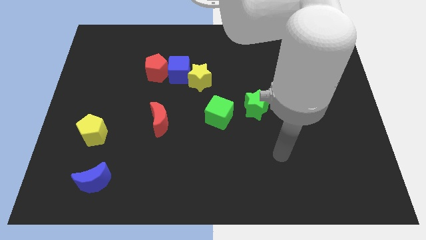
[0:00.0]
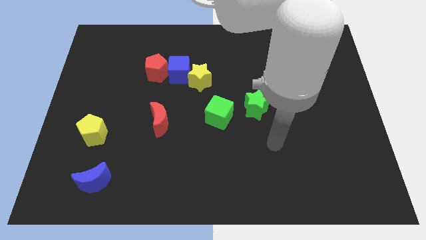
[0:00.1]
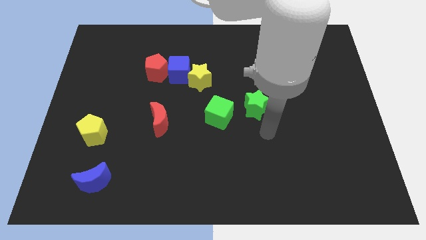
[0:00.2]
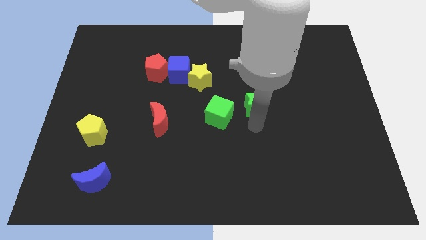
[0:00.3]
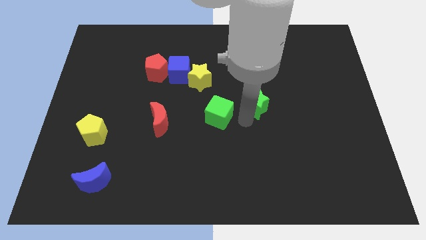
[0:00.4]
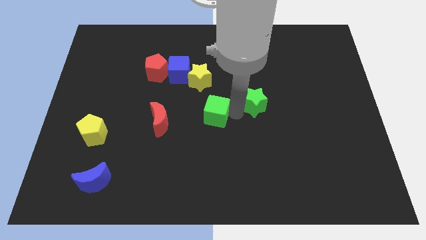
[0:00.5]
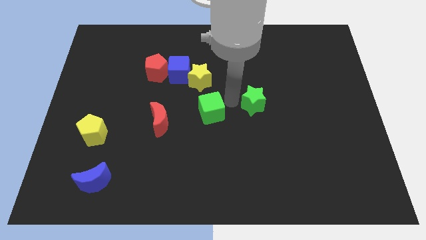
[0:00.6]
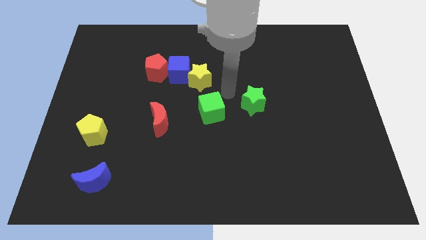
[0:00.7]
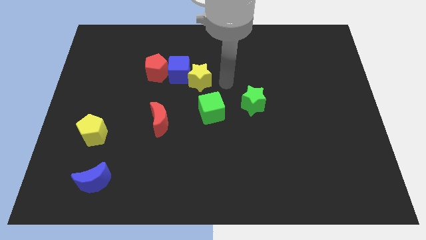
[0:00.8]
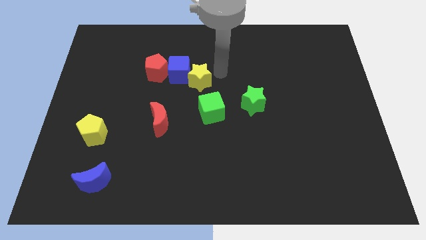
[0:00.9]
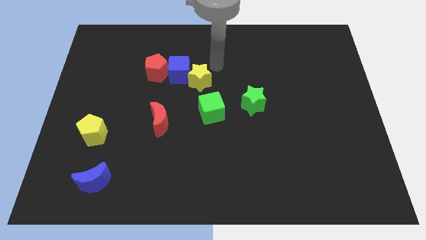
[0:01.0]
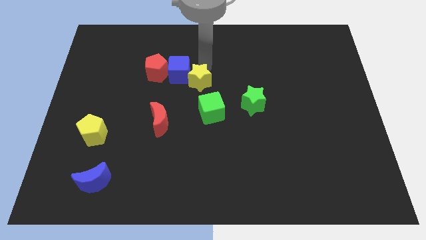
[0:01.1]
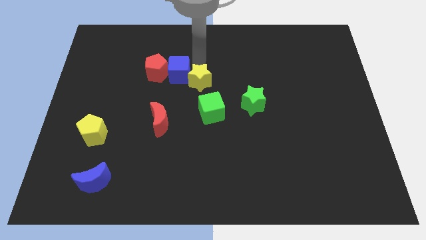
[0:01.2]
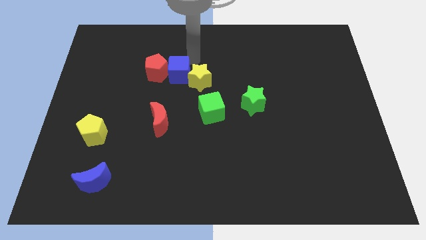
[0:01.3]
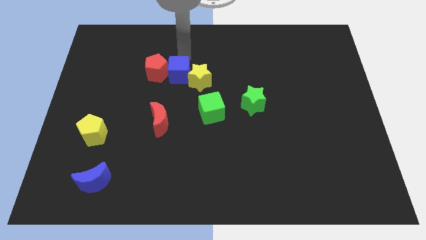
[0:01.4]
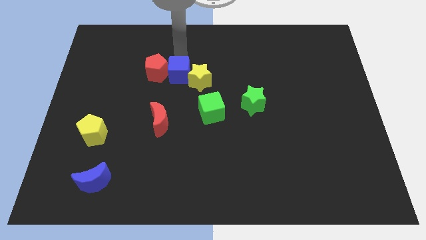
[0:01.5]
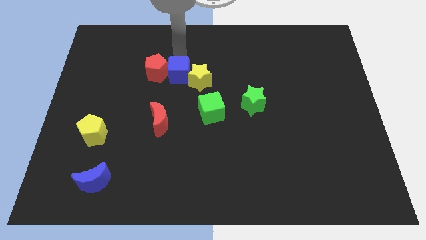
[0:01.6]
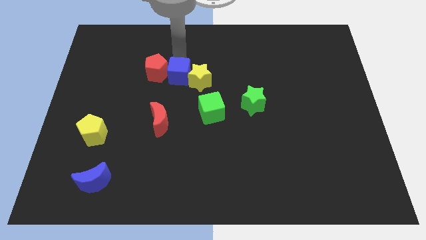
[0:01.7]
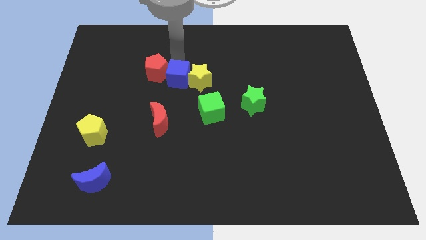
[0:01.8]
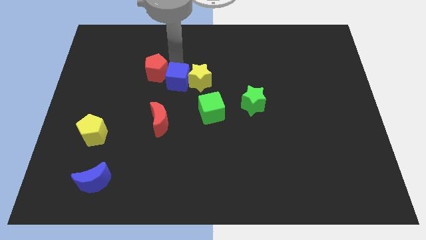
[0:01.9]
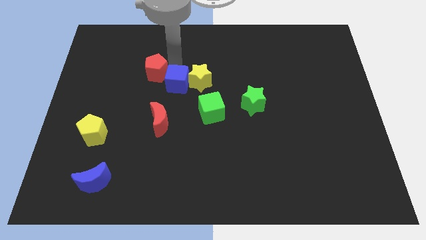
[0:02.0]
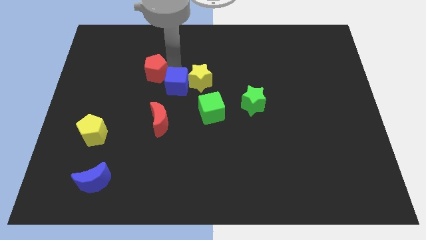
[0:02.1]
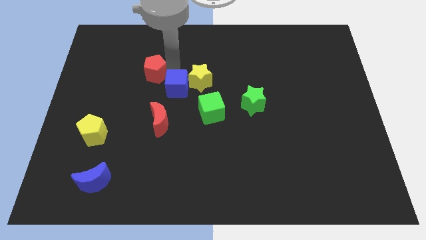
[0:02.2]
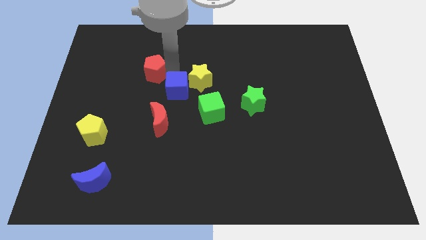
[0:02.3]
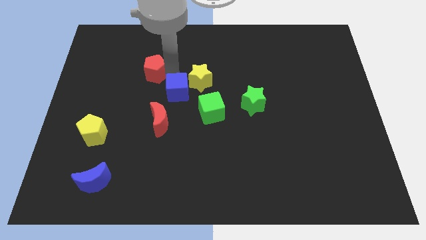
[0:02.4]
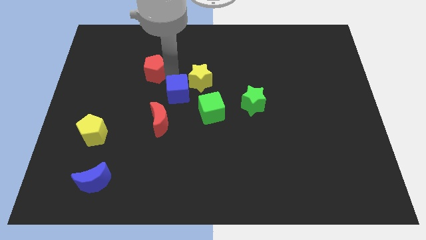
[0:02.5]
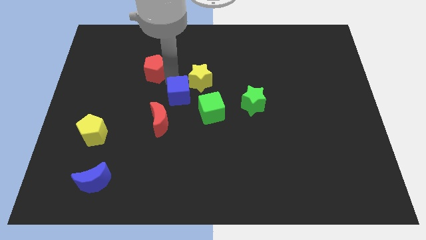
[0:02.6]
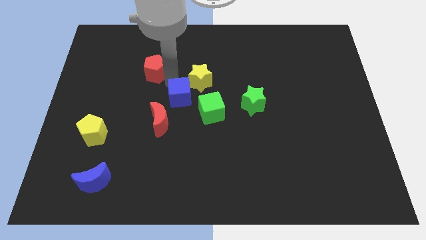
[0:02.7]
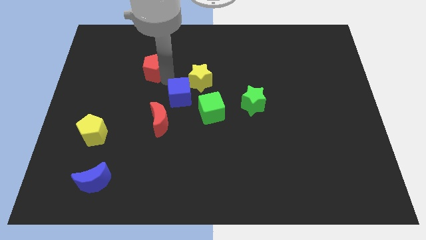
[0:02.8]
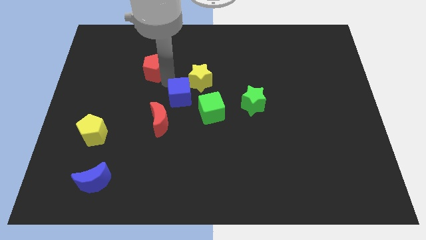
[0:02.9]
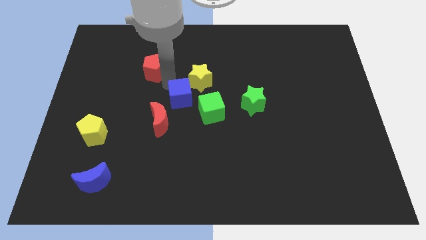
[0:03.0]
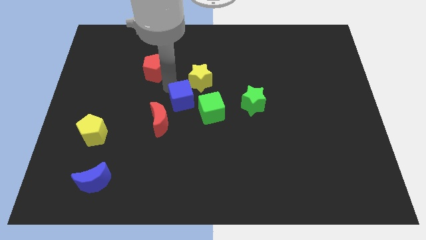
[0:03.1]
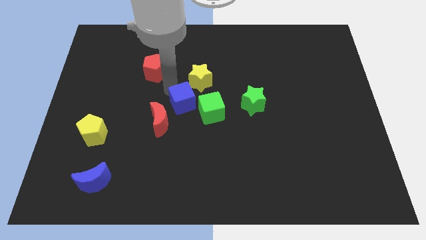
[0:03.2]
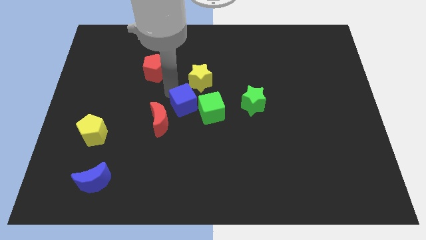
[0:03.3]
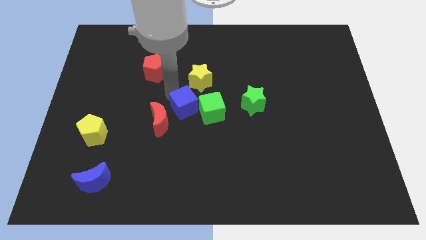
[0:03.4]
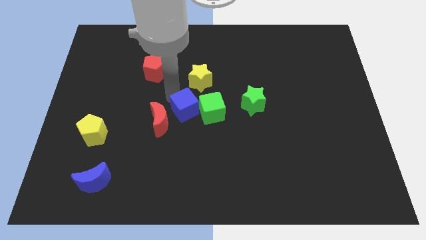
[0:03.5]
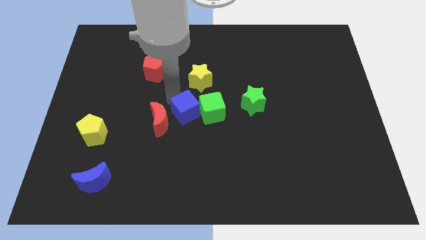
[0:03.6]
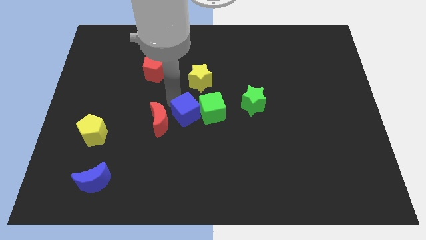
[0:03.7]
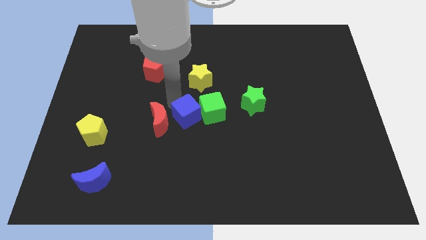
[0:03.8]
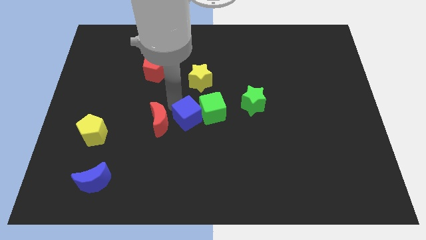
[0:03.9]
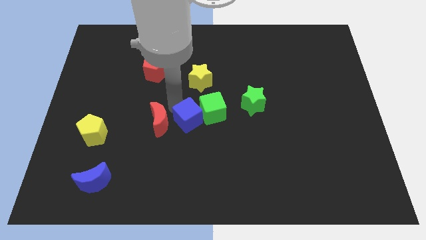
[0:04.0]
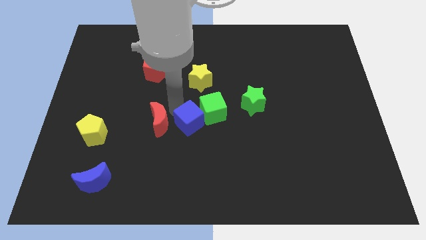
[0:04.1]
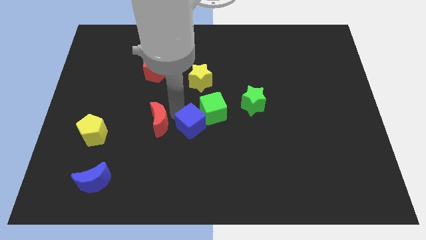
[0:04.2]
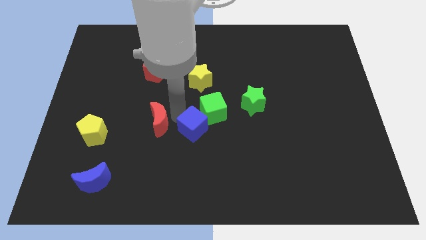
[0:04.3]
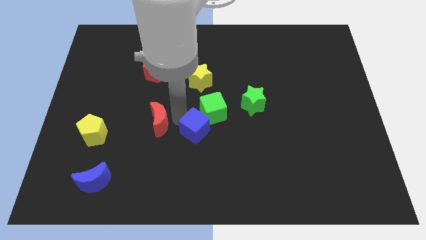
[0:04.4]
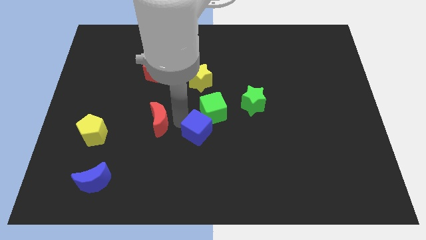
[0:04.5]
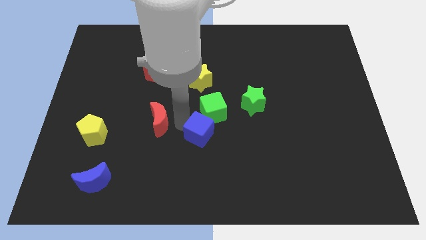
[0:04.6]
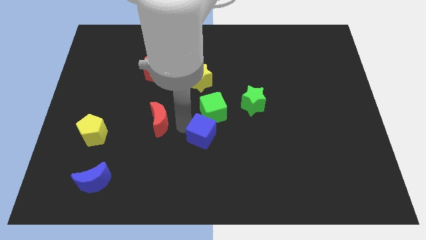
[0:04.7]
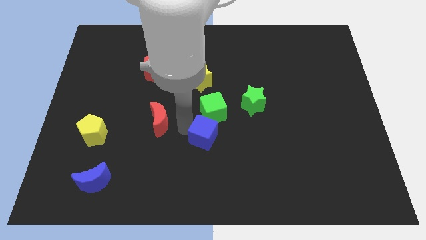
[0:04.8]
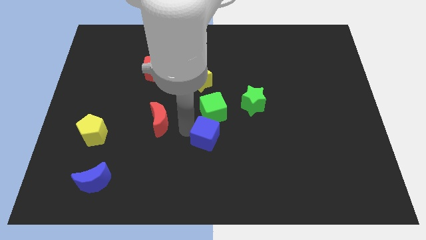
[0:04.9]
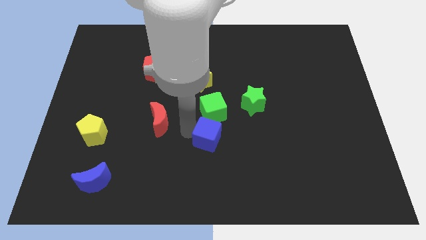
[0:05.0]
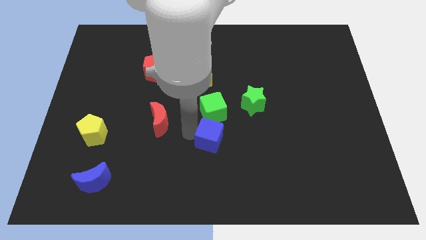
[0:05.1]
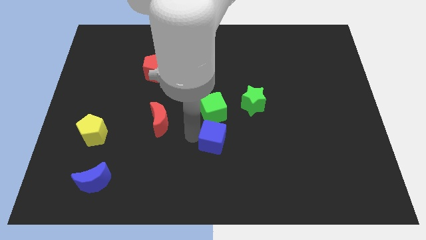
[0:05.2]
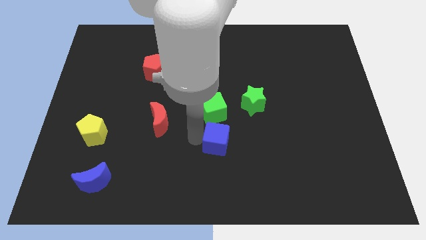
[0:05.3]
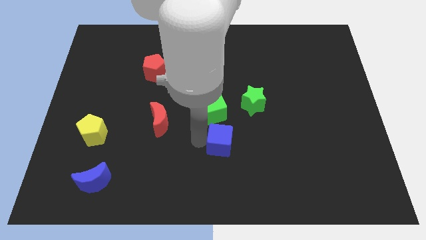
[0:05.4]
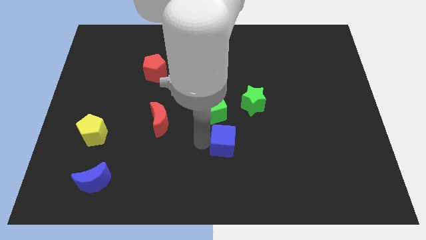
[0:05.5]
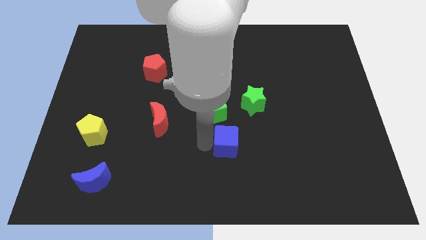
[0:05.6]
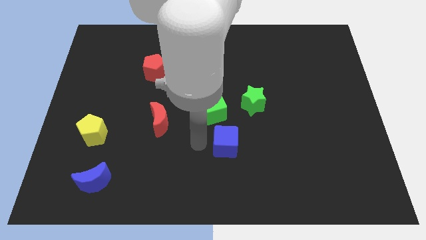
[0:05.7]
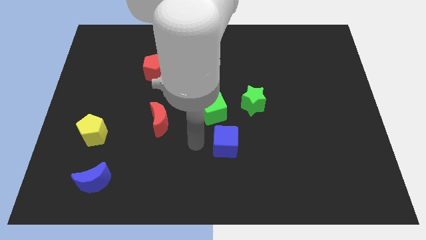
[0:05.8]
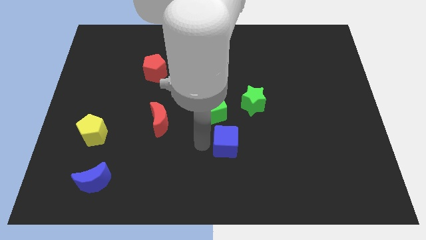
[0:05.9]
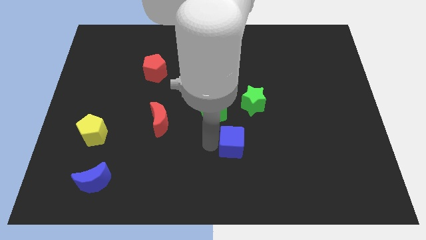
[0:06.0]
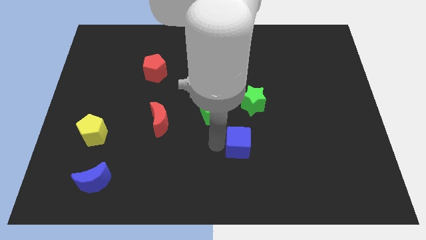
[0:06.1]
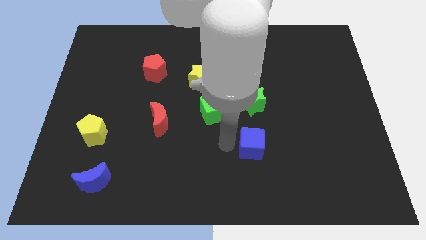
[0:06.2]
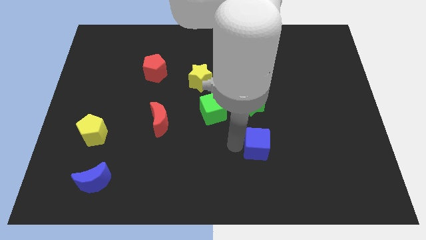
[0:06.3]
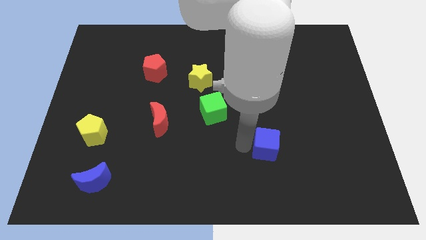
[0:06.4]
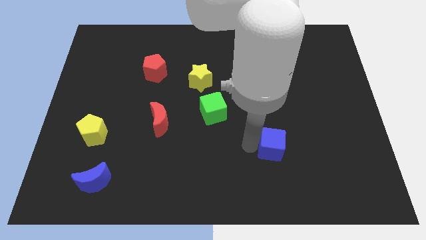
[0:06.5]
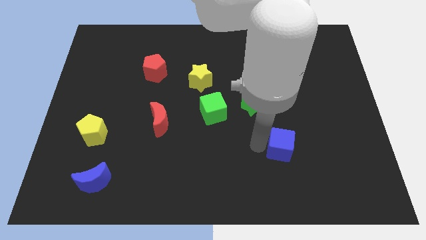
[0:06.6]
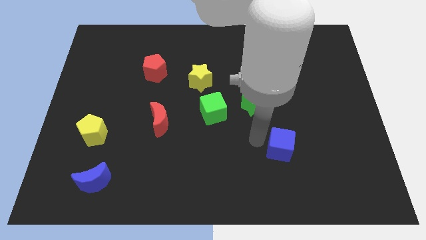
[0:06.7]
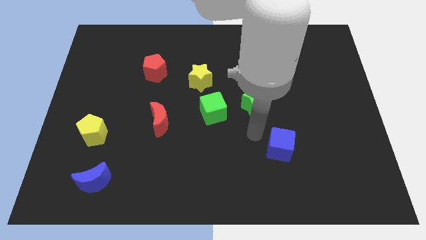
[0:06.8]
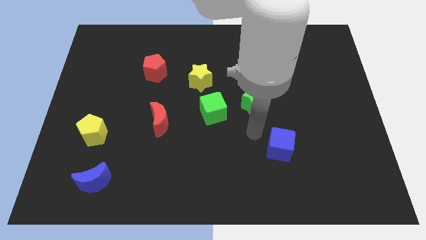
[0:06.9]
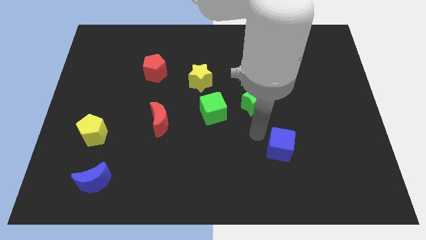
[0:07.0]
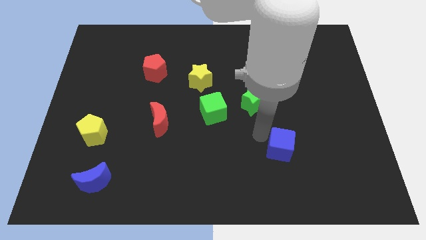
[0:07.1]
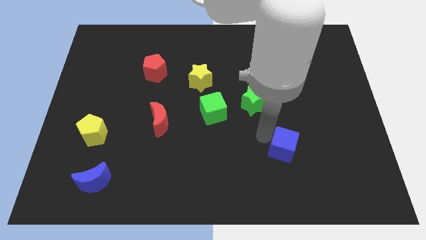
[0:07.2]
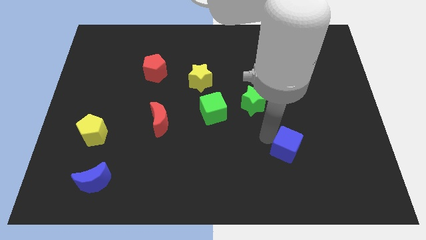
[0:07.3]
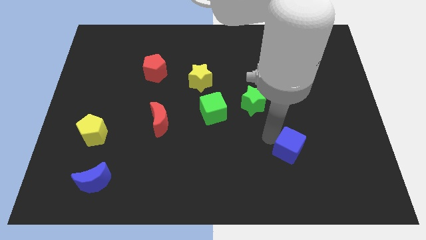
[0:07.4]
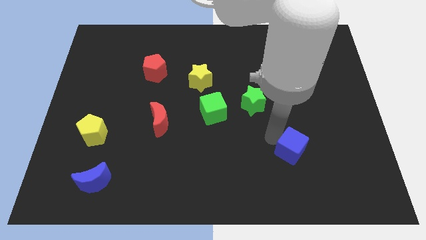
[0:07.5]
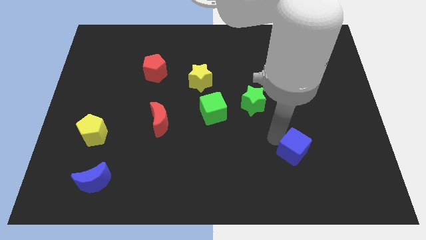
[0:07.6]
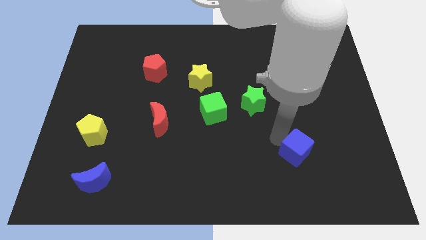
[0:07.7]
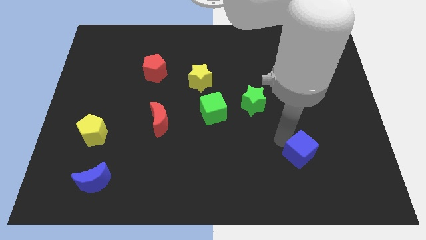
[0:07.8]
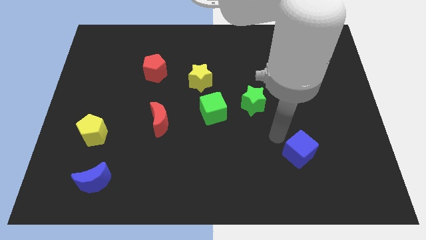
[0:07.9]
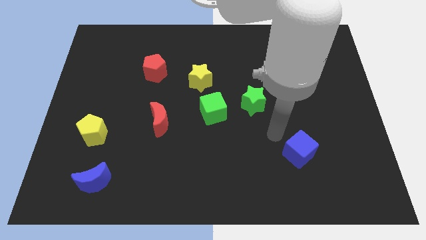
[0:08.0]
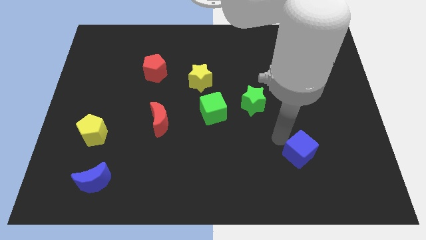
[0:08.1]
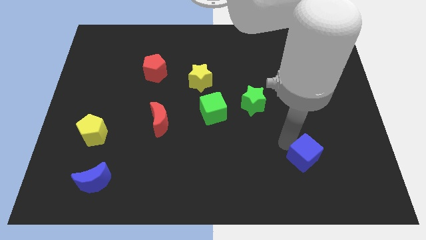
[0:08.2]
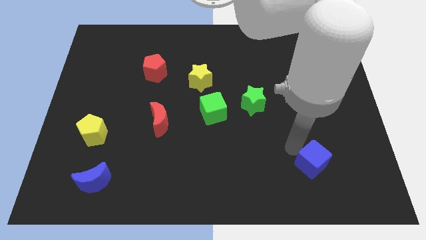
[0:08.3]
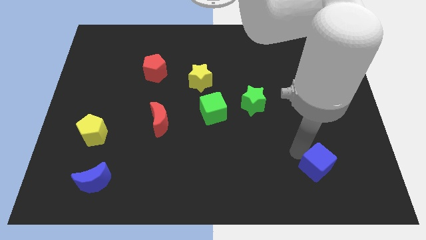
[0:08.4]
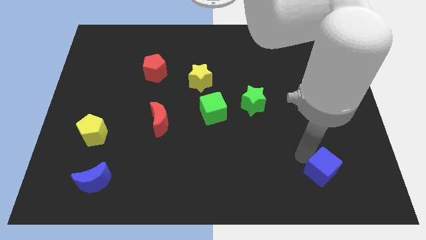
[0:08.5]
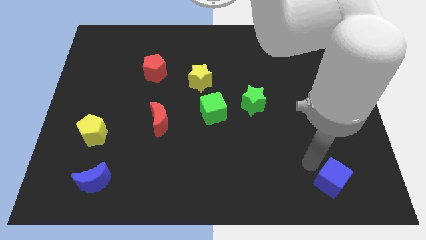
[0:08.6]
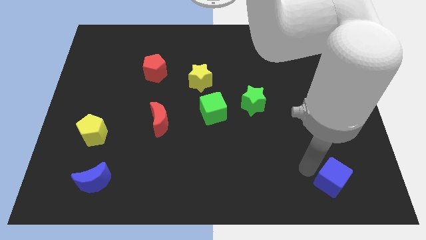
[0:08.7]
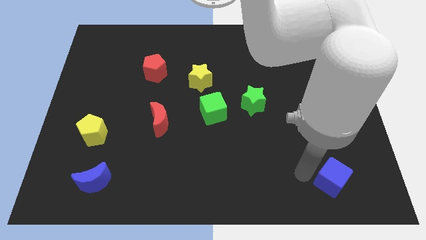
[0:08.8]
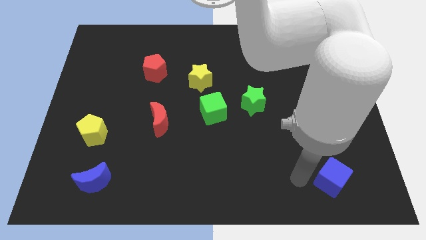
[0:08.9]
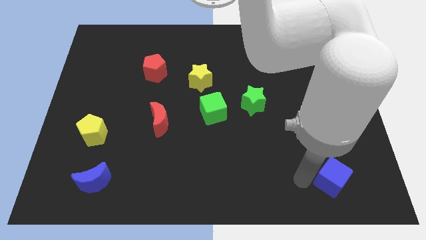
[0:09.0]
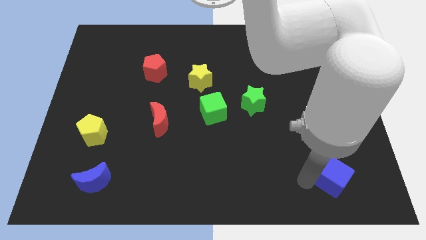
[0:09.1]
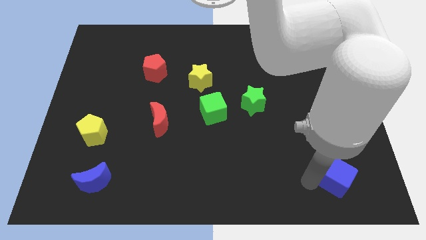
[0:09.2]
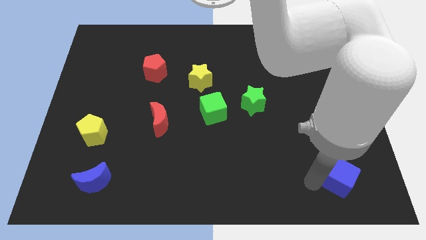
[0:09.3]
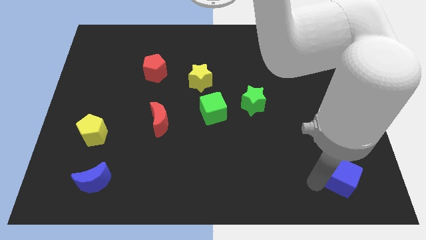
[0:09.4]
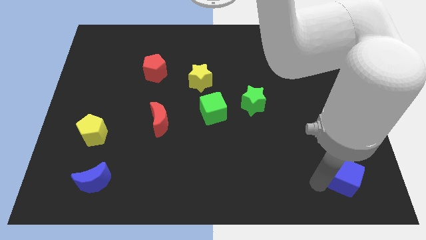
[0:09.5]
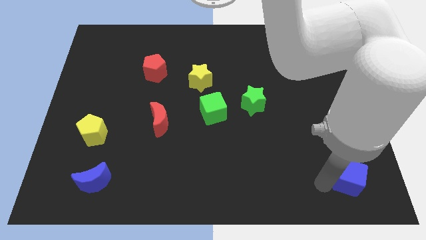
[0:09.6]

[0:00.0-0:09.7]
slide the blue cube to the lower right corner
